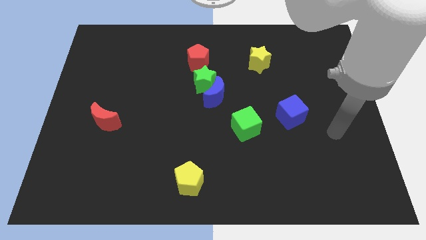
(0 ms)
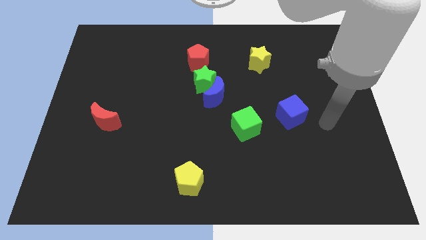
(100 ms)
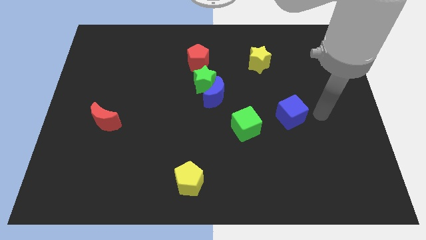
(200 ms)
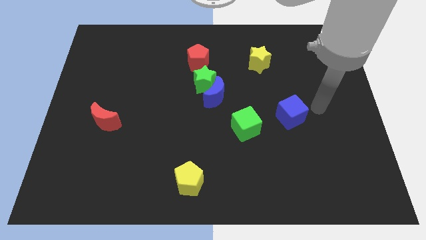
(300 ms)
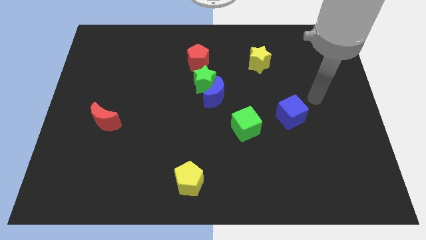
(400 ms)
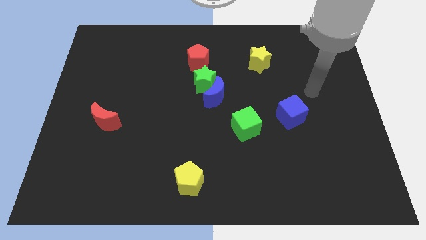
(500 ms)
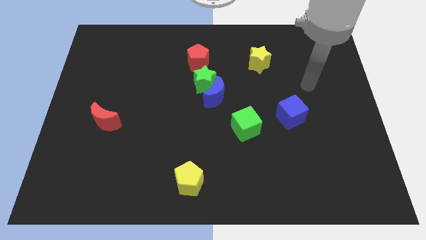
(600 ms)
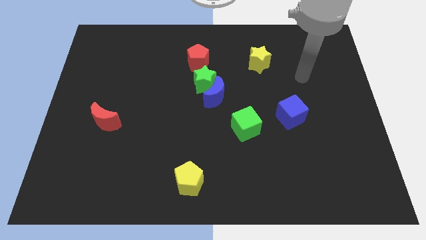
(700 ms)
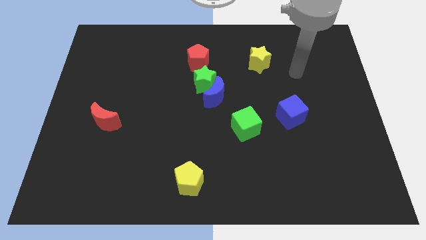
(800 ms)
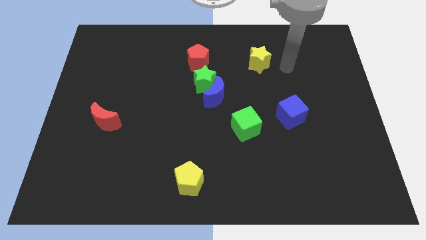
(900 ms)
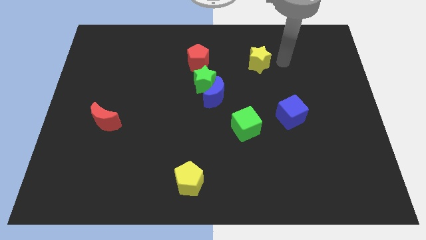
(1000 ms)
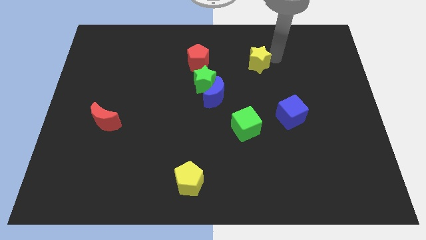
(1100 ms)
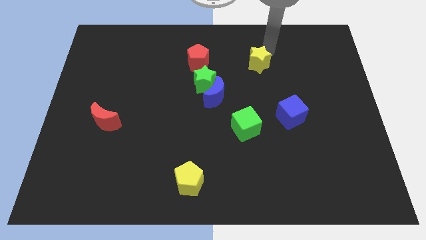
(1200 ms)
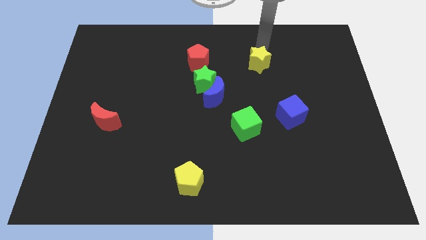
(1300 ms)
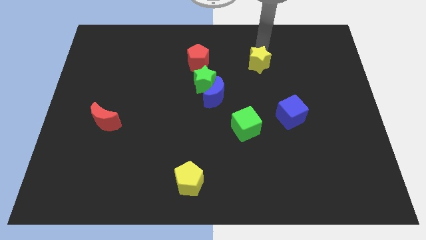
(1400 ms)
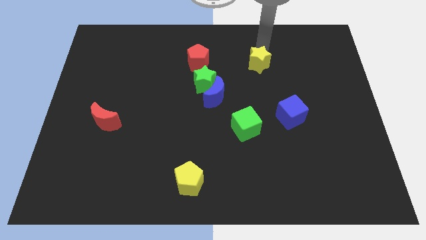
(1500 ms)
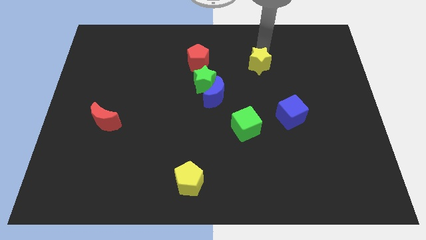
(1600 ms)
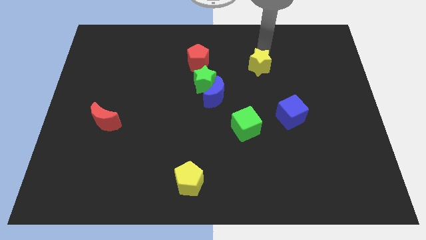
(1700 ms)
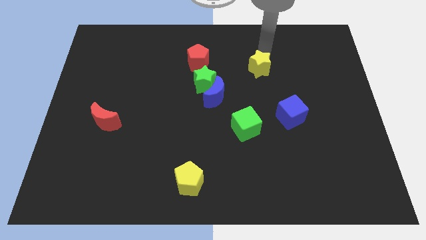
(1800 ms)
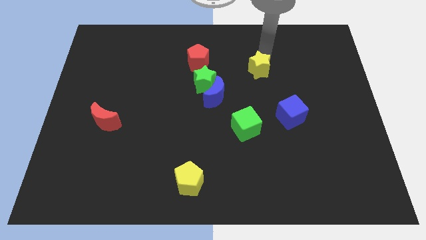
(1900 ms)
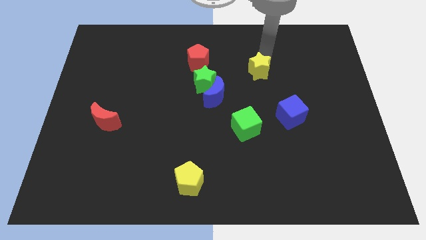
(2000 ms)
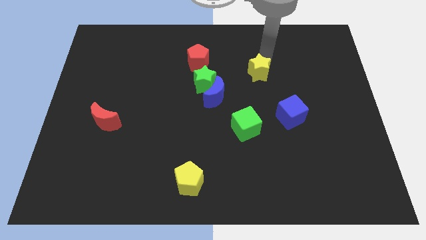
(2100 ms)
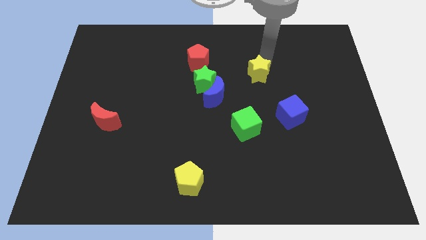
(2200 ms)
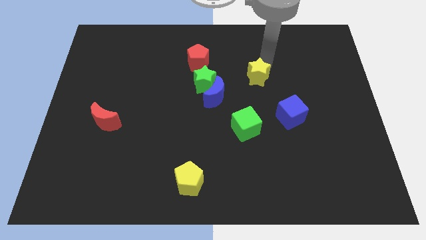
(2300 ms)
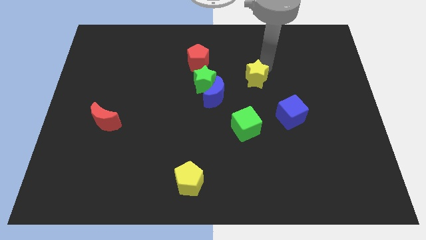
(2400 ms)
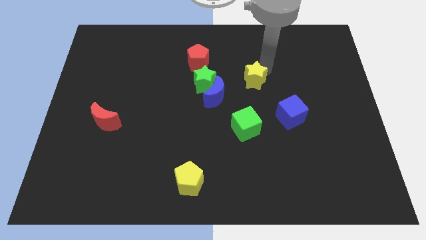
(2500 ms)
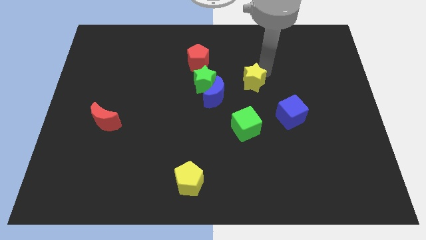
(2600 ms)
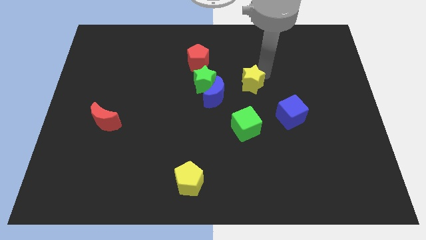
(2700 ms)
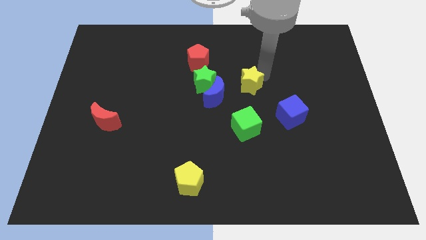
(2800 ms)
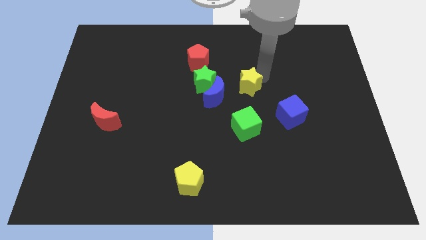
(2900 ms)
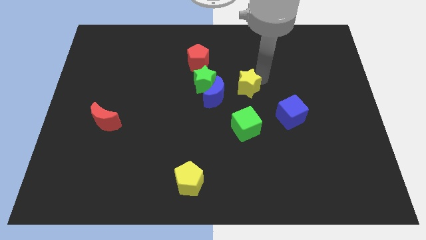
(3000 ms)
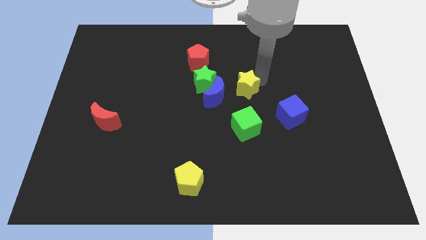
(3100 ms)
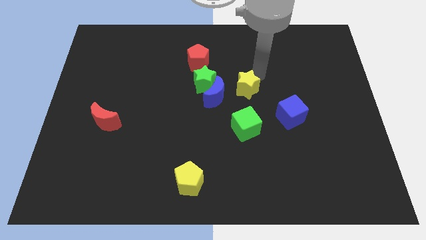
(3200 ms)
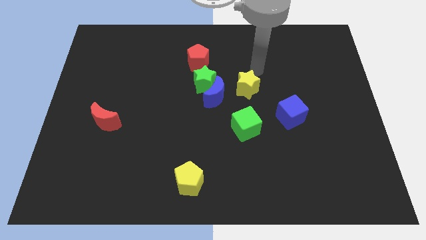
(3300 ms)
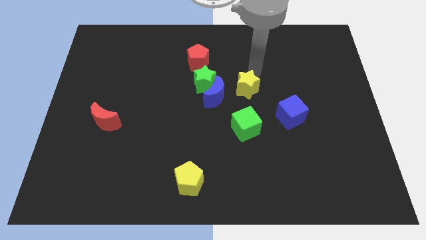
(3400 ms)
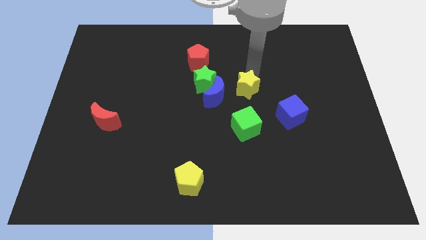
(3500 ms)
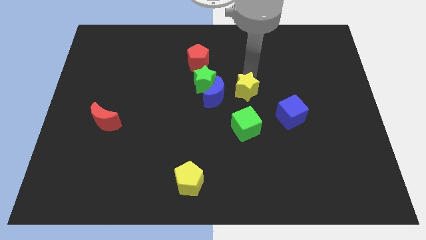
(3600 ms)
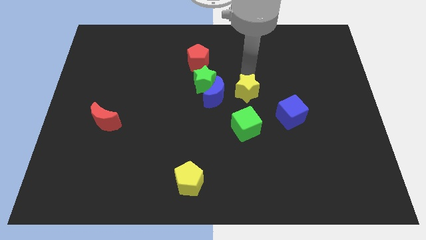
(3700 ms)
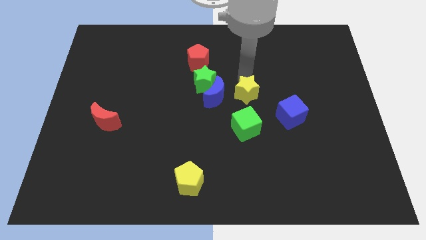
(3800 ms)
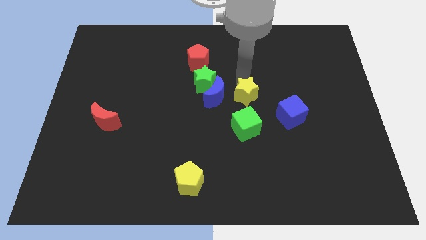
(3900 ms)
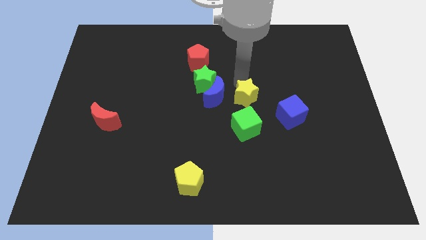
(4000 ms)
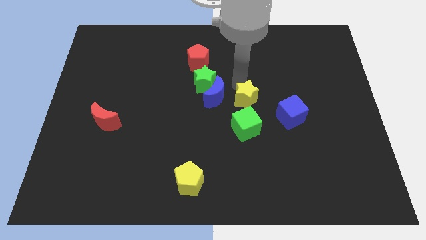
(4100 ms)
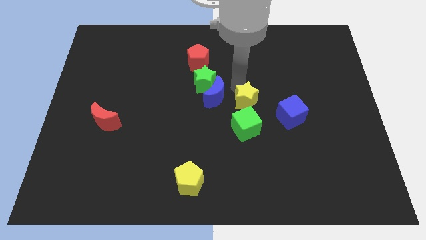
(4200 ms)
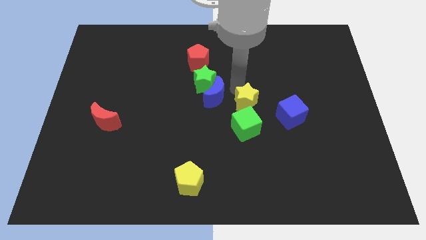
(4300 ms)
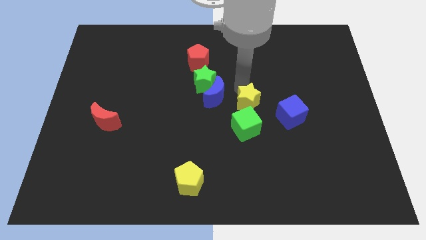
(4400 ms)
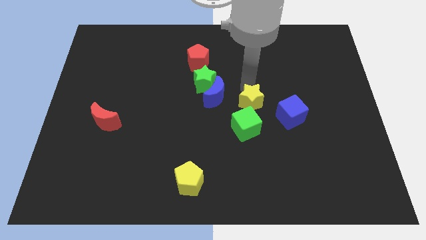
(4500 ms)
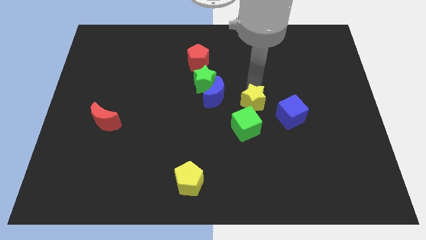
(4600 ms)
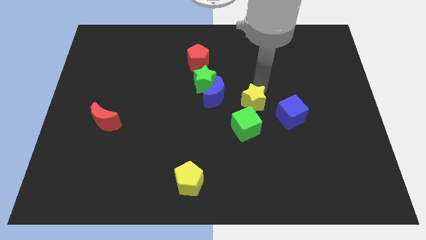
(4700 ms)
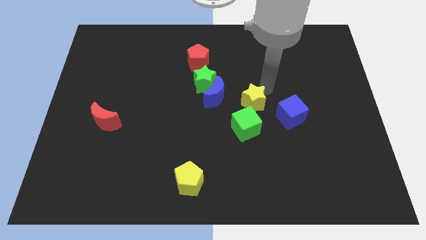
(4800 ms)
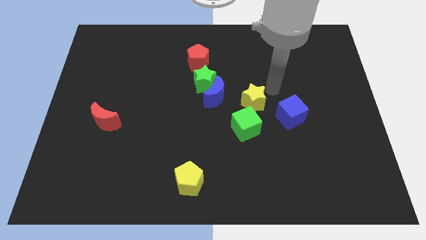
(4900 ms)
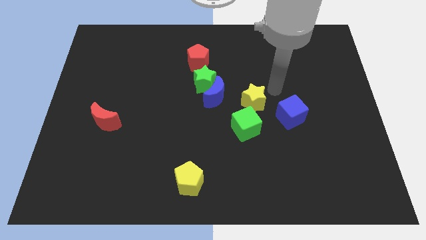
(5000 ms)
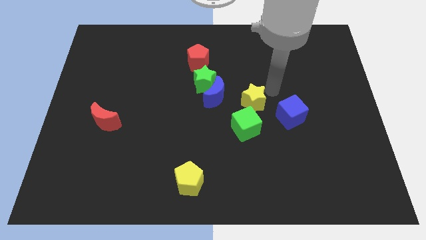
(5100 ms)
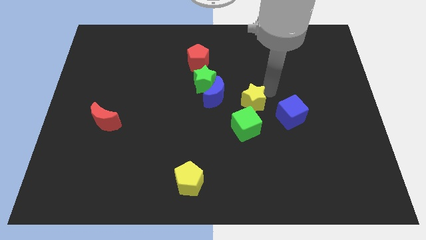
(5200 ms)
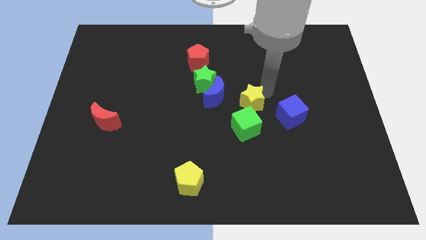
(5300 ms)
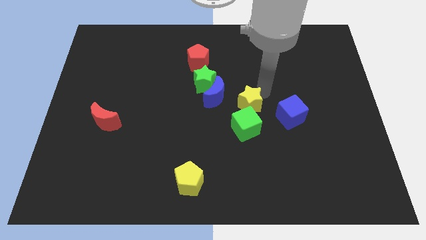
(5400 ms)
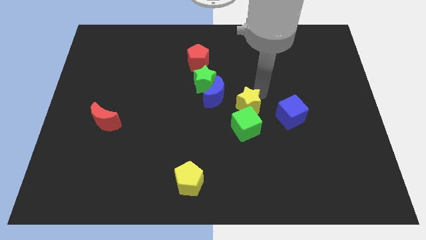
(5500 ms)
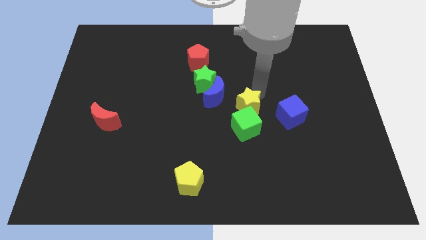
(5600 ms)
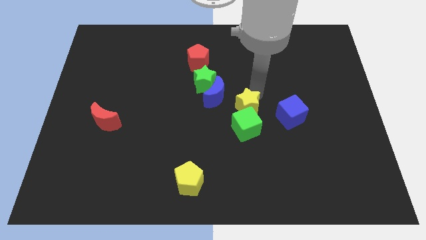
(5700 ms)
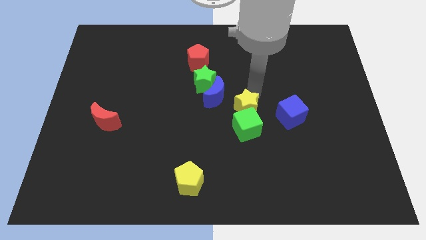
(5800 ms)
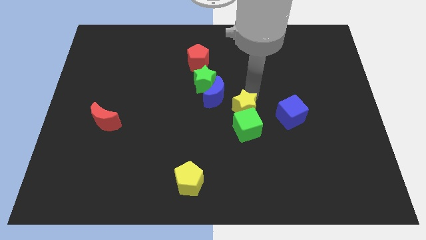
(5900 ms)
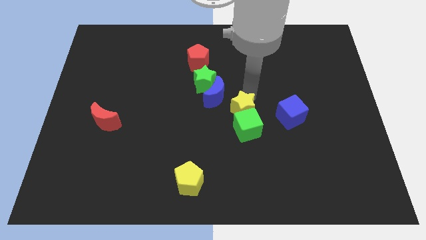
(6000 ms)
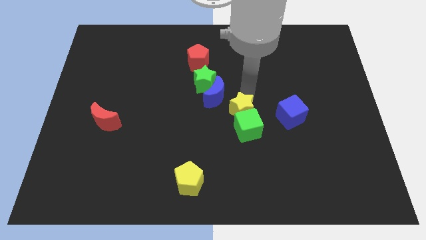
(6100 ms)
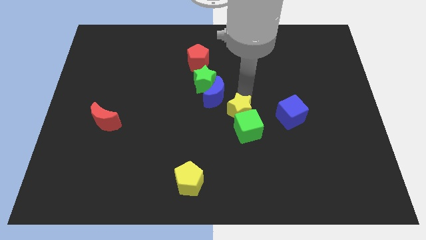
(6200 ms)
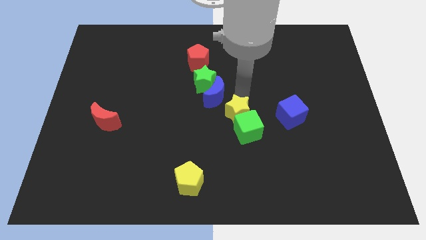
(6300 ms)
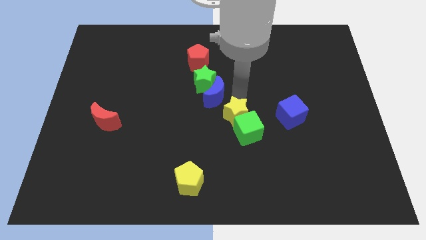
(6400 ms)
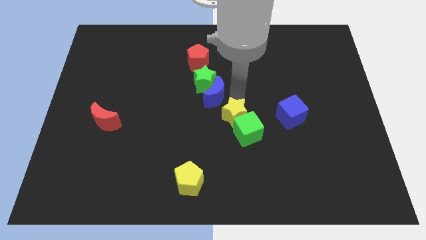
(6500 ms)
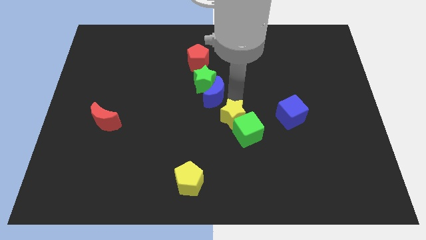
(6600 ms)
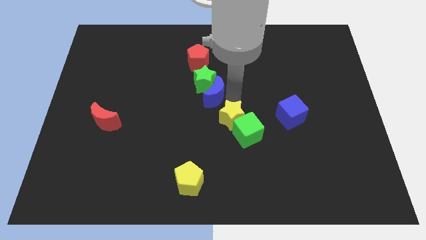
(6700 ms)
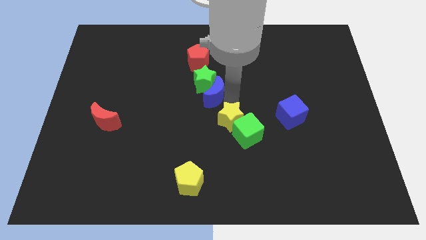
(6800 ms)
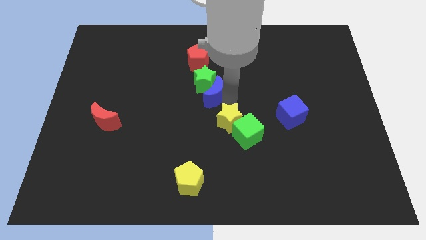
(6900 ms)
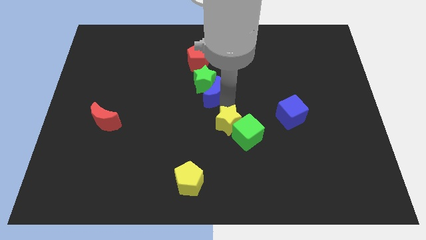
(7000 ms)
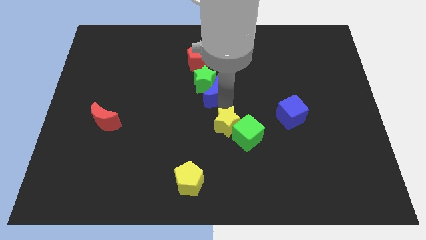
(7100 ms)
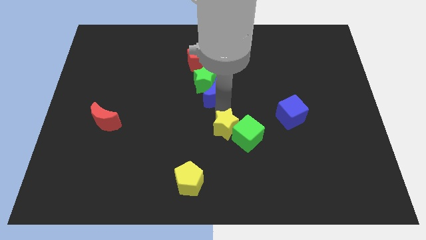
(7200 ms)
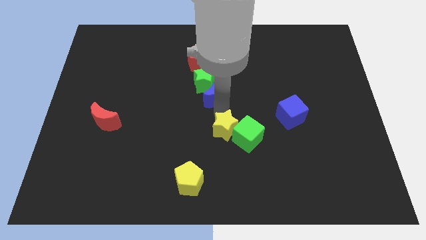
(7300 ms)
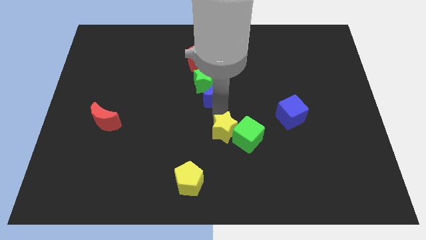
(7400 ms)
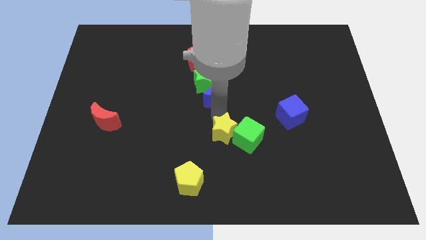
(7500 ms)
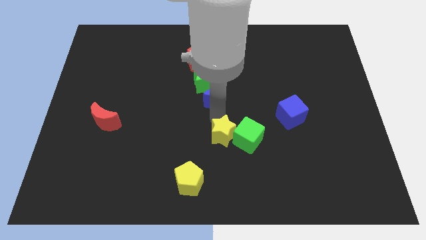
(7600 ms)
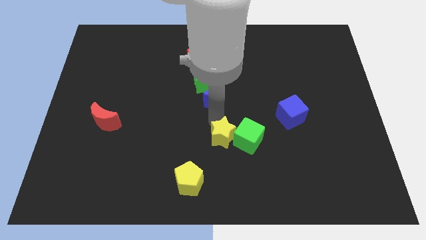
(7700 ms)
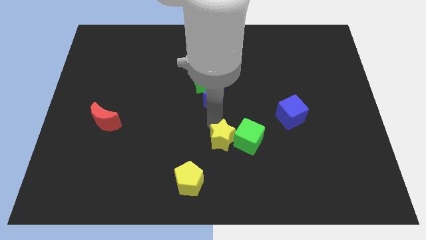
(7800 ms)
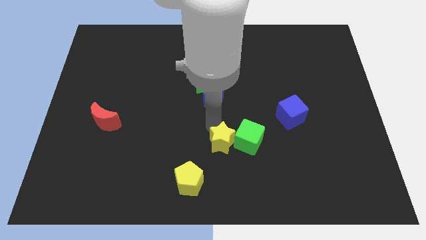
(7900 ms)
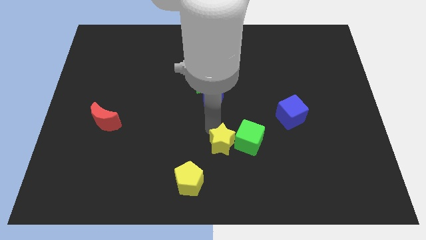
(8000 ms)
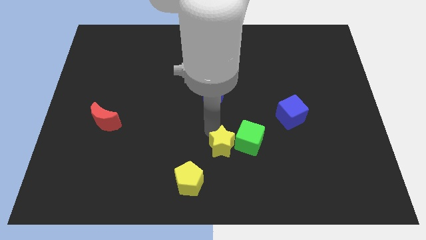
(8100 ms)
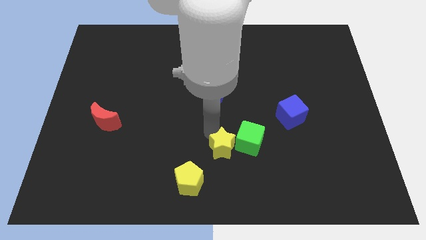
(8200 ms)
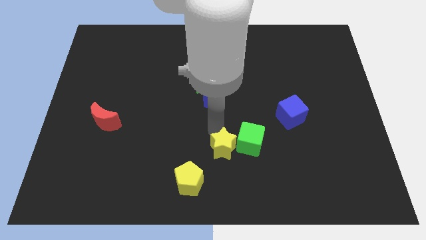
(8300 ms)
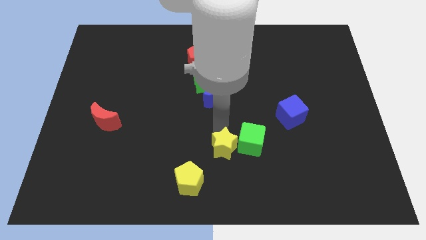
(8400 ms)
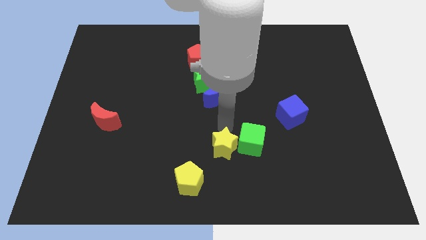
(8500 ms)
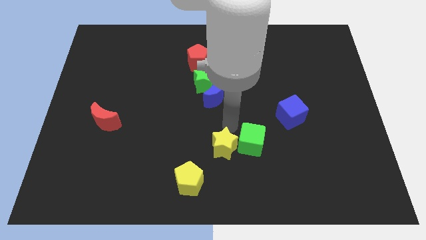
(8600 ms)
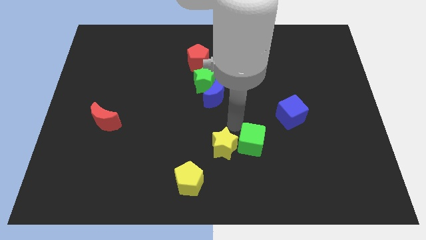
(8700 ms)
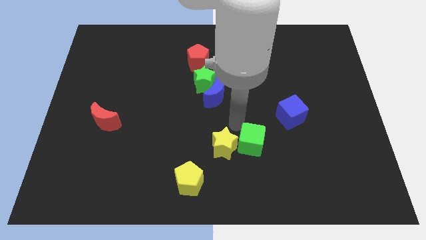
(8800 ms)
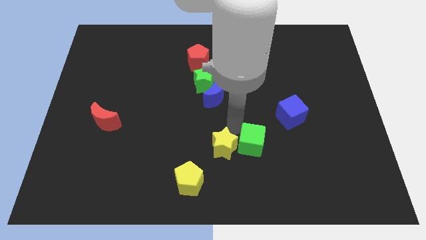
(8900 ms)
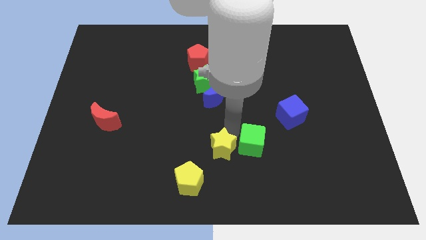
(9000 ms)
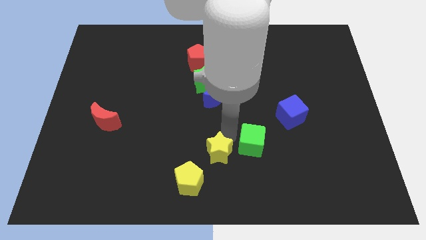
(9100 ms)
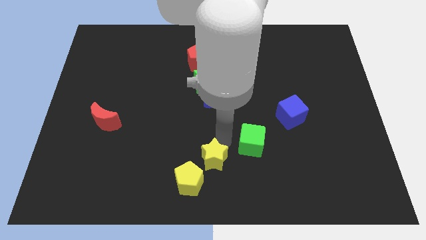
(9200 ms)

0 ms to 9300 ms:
slide the yellow star to the bottom side
